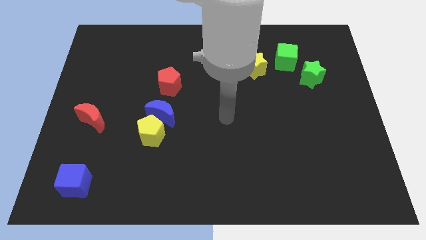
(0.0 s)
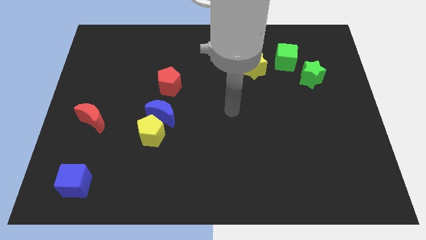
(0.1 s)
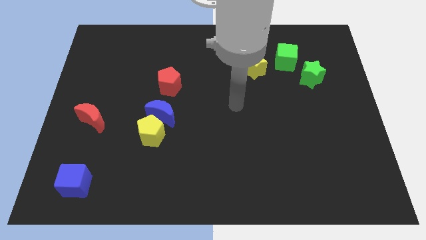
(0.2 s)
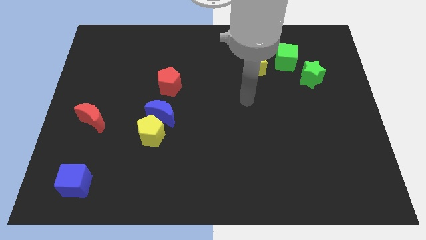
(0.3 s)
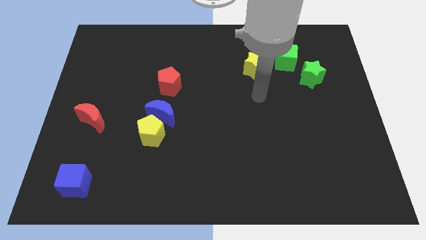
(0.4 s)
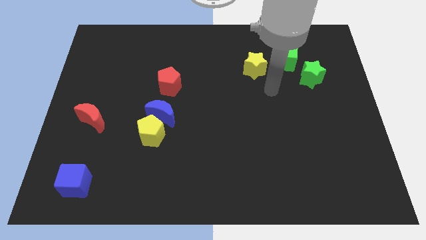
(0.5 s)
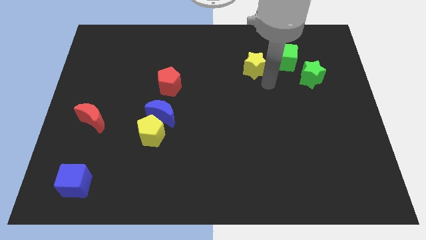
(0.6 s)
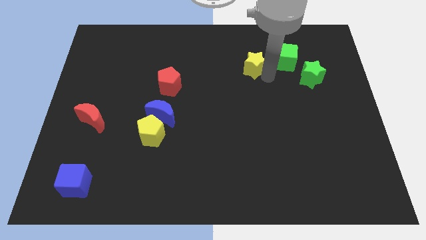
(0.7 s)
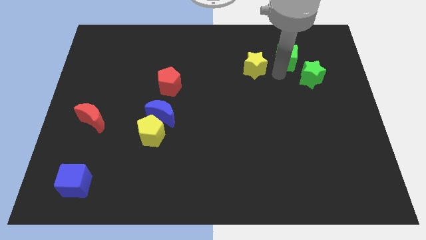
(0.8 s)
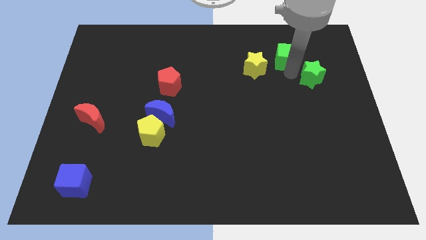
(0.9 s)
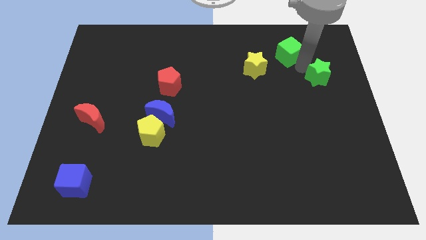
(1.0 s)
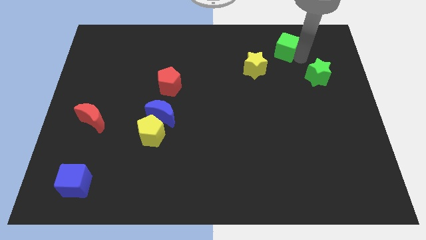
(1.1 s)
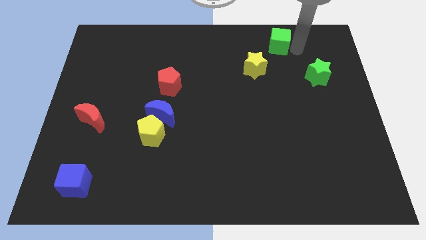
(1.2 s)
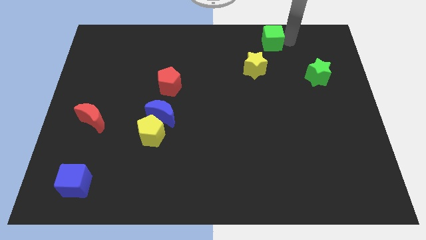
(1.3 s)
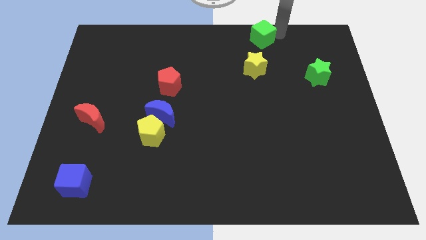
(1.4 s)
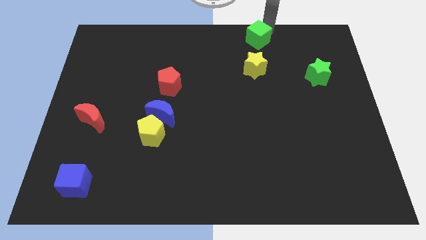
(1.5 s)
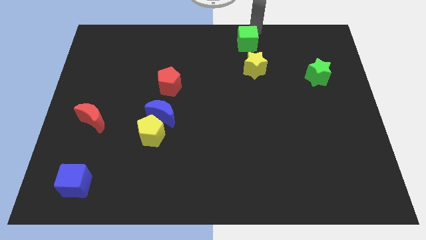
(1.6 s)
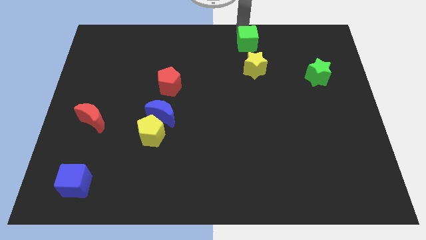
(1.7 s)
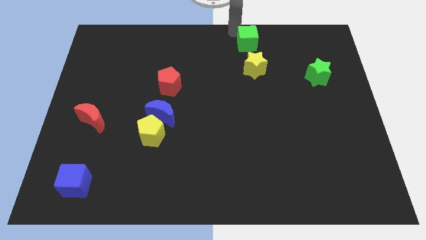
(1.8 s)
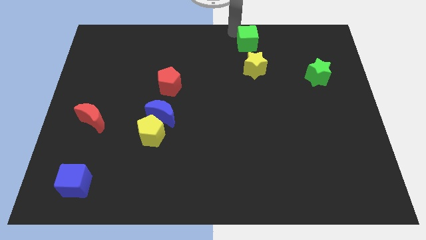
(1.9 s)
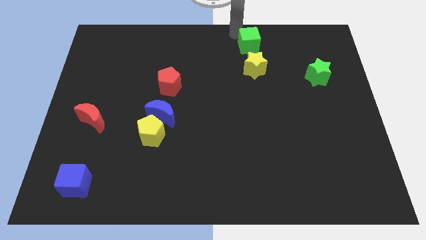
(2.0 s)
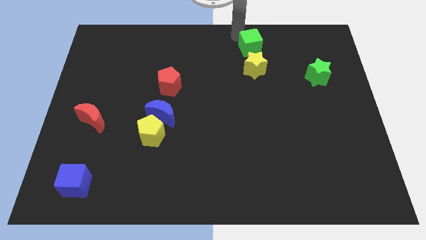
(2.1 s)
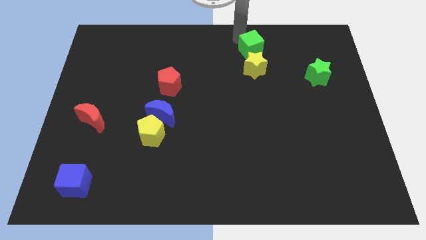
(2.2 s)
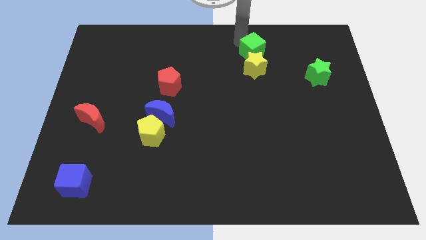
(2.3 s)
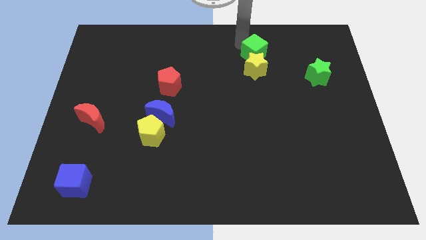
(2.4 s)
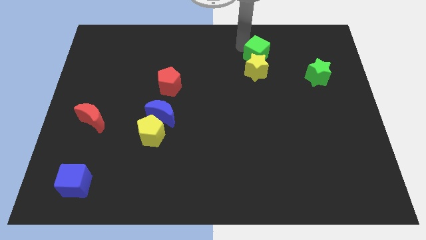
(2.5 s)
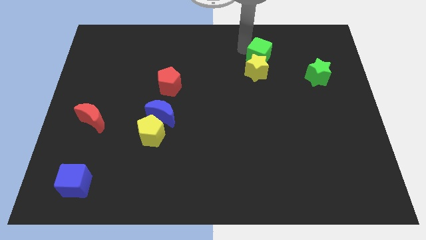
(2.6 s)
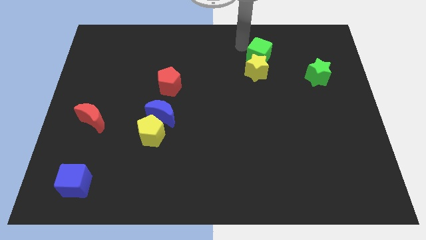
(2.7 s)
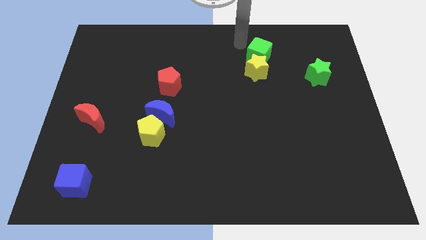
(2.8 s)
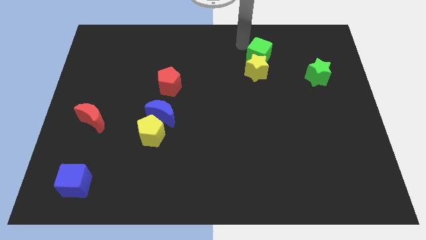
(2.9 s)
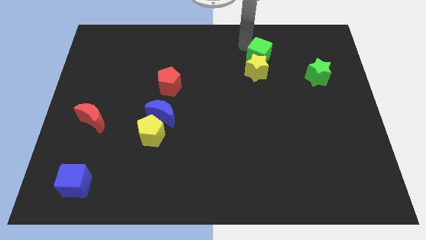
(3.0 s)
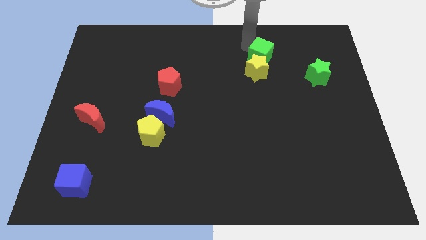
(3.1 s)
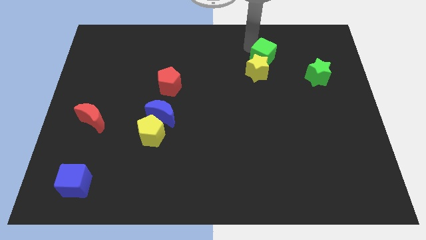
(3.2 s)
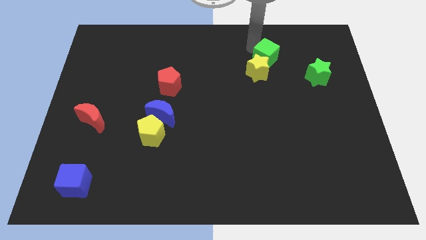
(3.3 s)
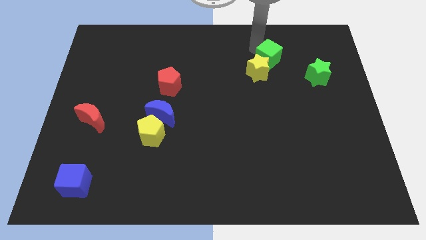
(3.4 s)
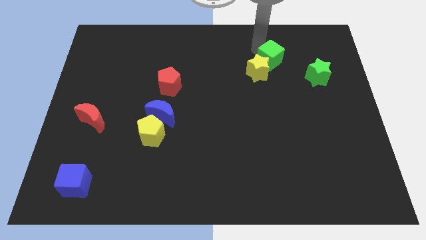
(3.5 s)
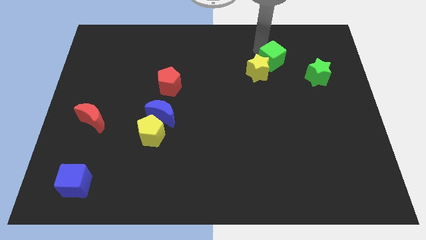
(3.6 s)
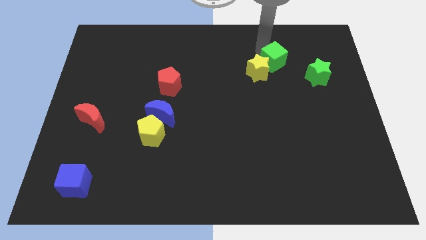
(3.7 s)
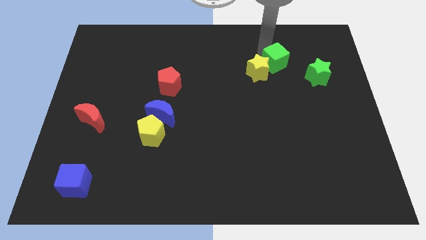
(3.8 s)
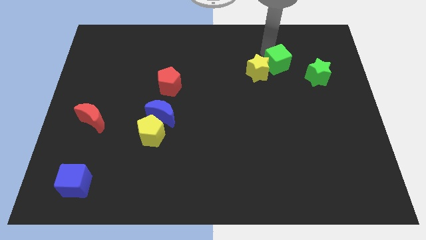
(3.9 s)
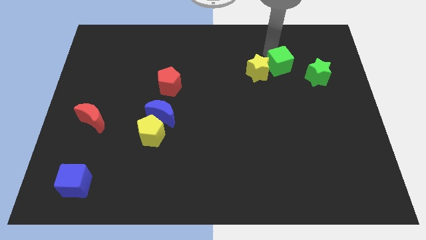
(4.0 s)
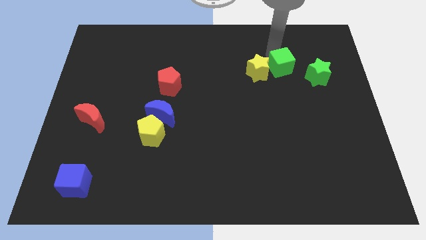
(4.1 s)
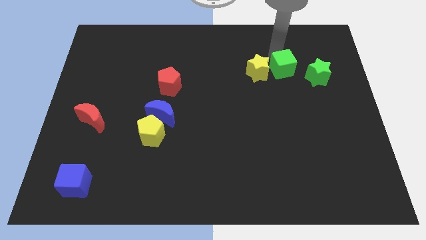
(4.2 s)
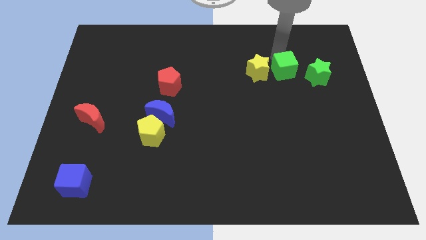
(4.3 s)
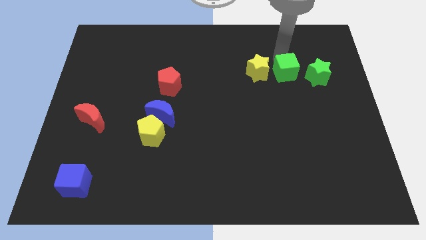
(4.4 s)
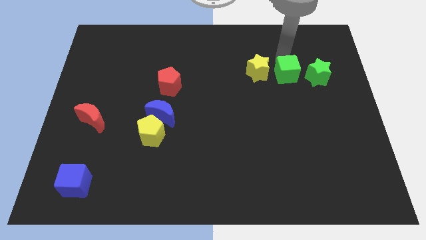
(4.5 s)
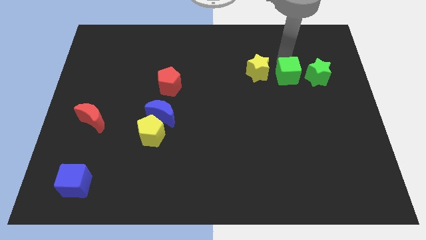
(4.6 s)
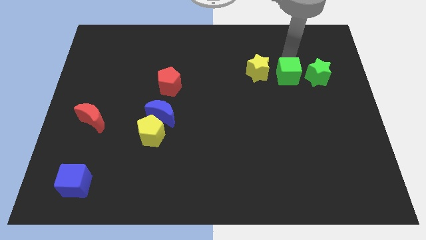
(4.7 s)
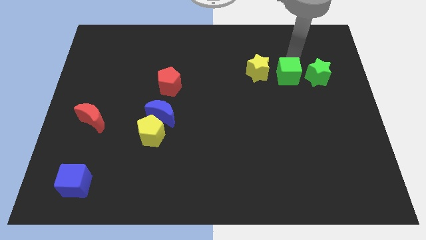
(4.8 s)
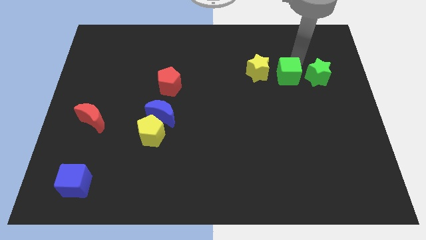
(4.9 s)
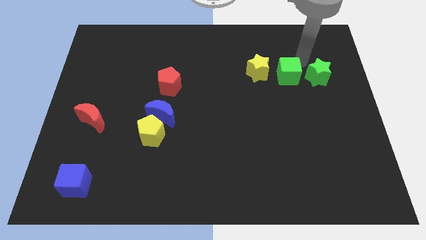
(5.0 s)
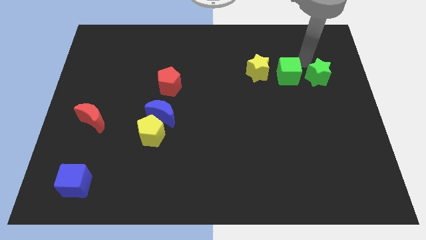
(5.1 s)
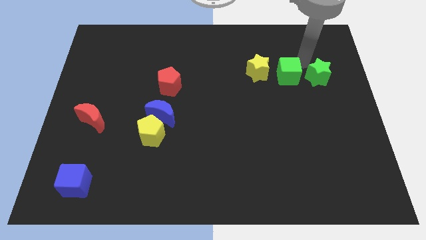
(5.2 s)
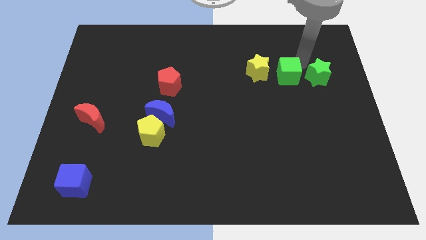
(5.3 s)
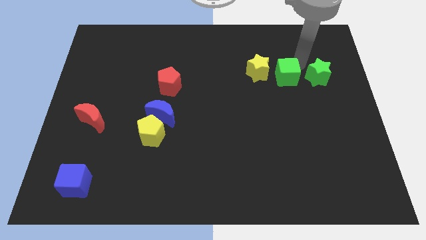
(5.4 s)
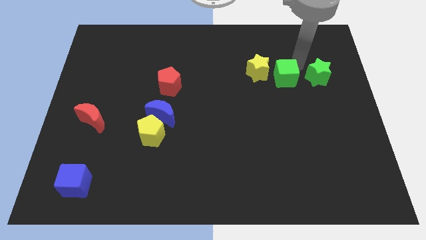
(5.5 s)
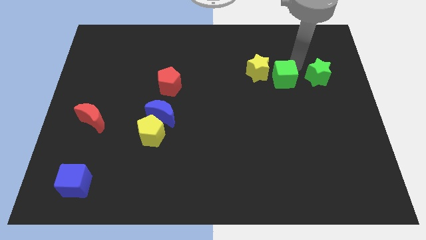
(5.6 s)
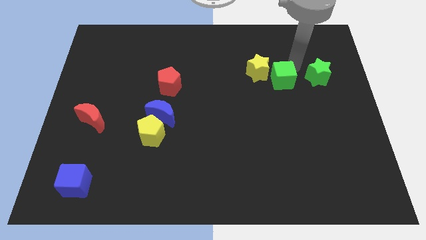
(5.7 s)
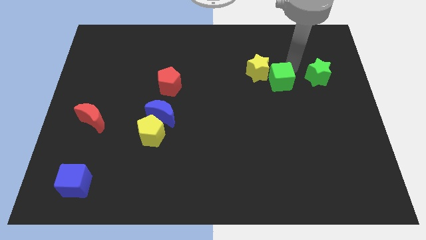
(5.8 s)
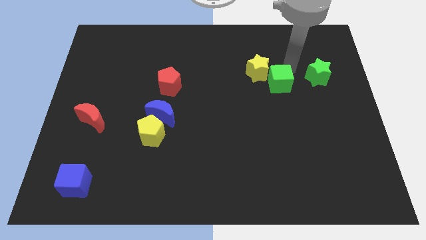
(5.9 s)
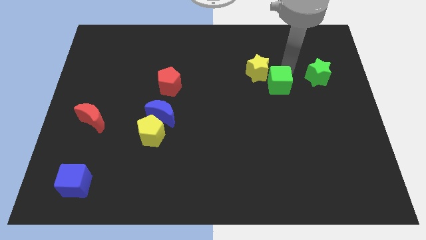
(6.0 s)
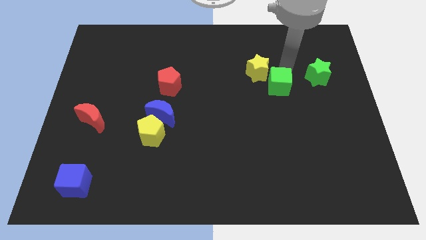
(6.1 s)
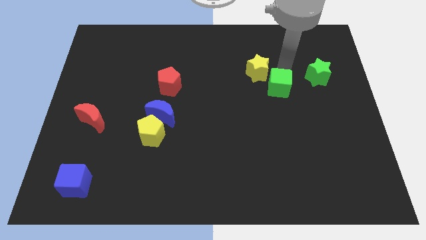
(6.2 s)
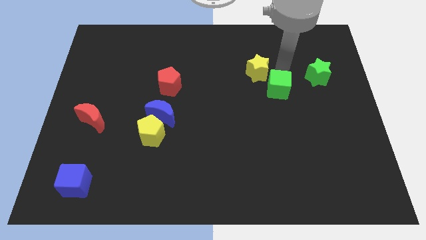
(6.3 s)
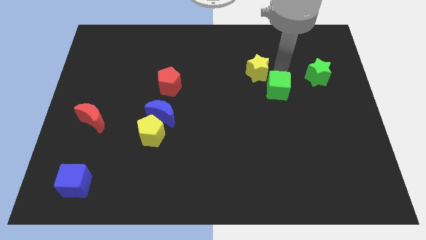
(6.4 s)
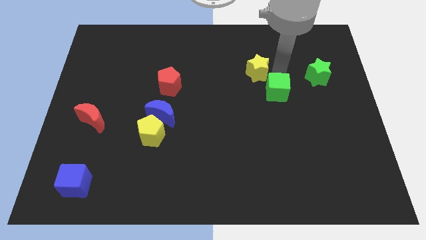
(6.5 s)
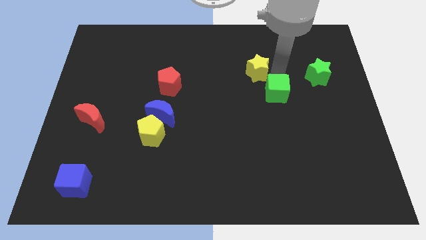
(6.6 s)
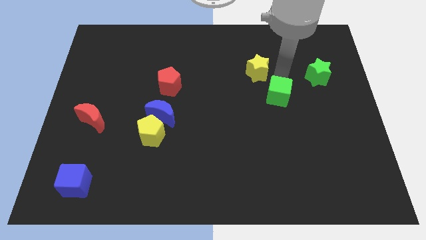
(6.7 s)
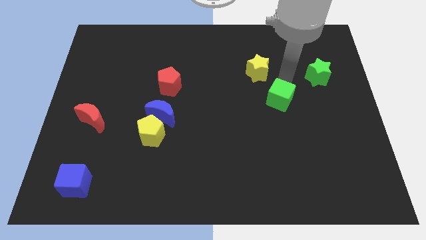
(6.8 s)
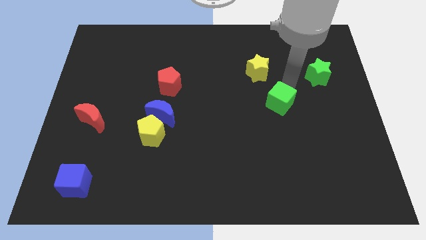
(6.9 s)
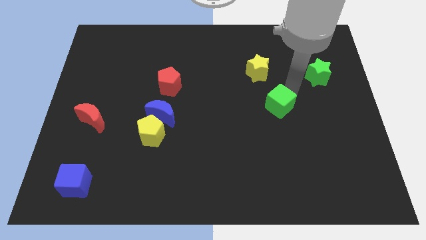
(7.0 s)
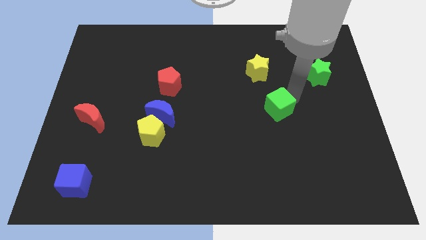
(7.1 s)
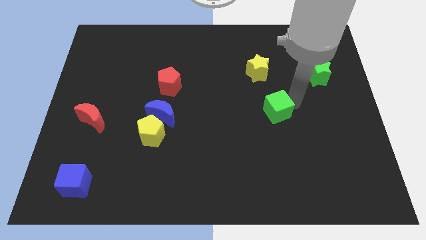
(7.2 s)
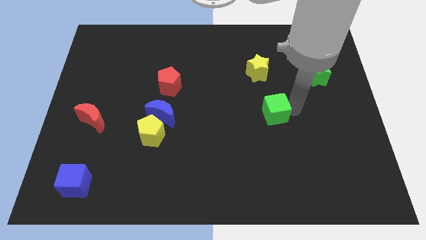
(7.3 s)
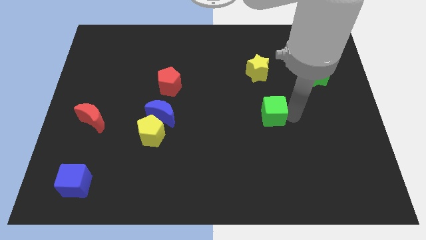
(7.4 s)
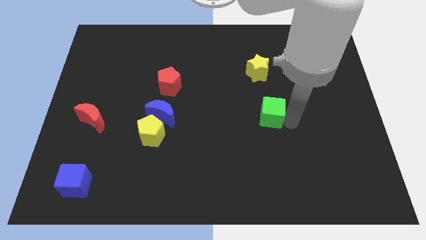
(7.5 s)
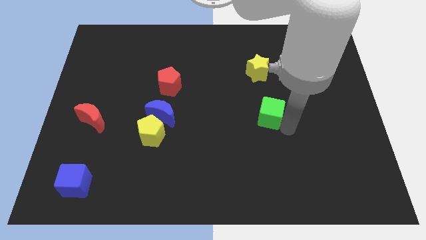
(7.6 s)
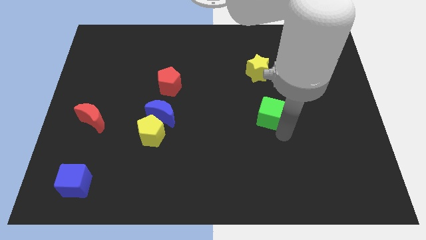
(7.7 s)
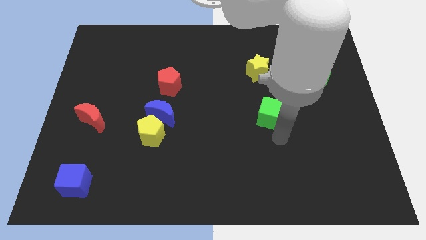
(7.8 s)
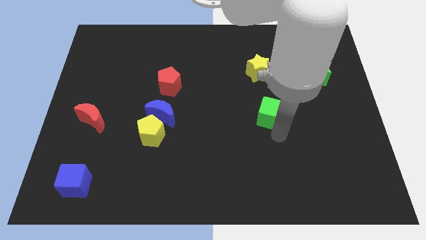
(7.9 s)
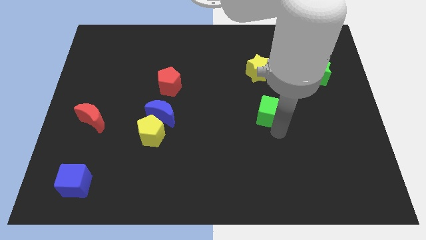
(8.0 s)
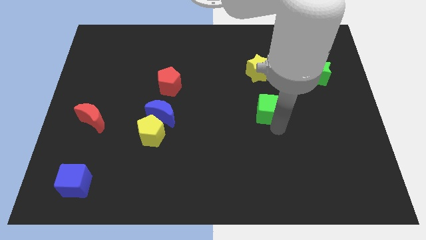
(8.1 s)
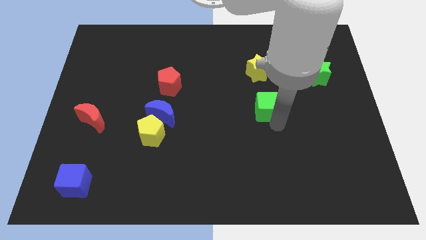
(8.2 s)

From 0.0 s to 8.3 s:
put the green cube to the middle
